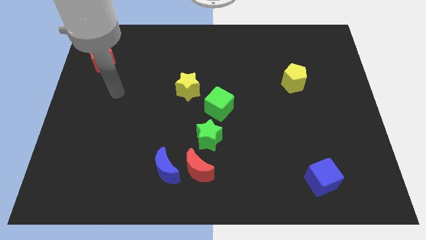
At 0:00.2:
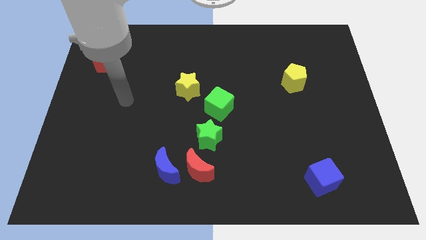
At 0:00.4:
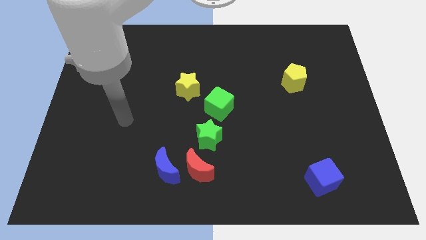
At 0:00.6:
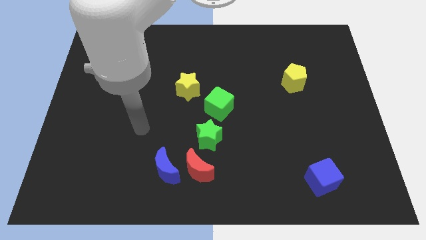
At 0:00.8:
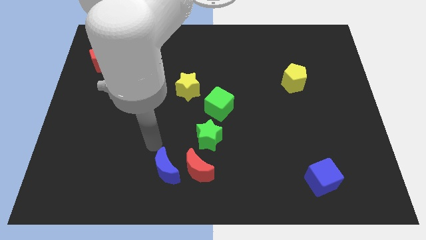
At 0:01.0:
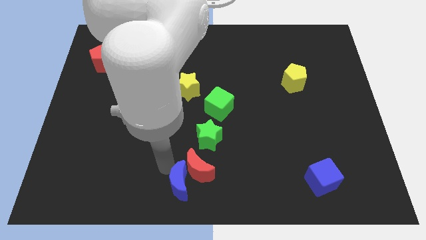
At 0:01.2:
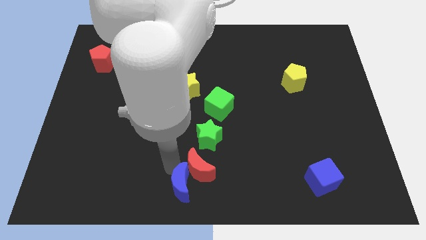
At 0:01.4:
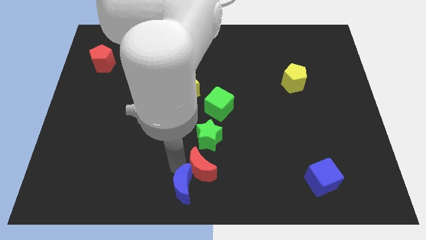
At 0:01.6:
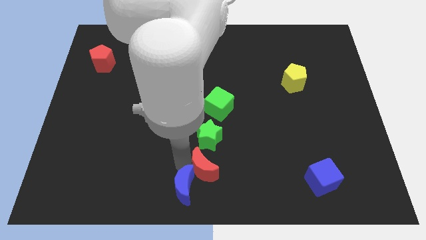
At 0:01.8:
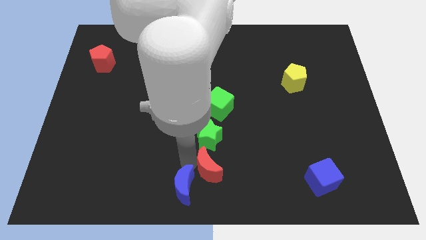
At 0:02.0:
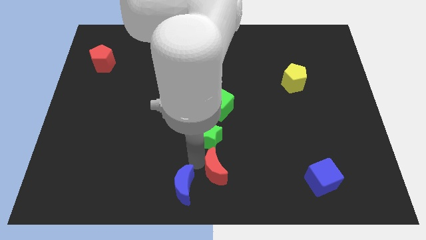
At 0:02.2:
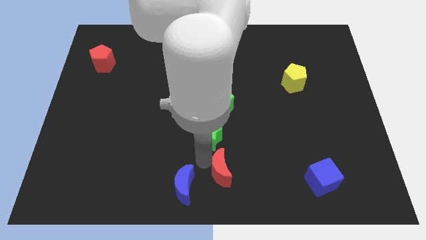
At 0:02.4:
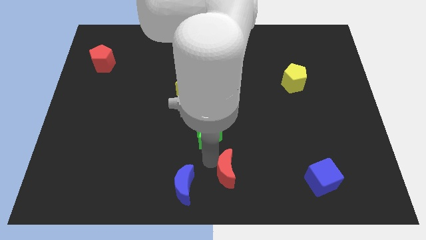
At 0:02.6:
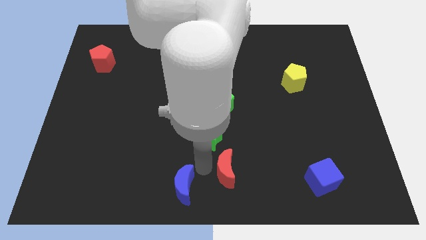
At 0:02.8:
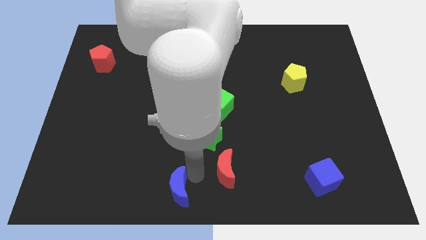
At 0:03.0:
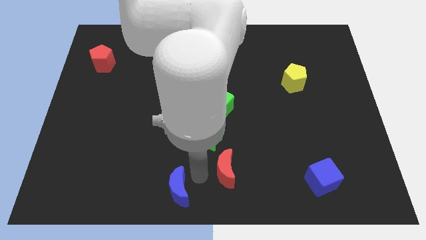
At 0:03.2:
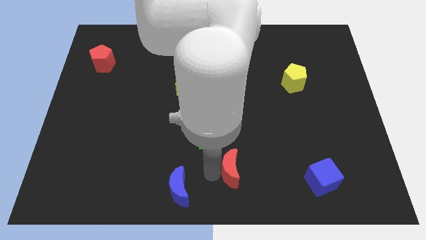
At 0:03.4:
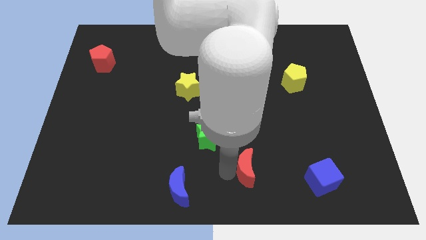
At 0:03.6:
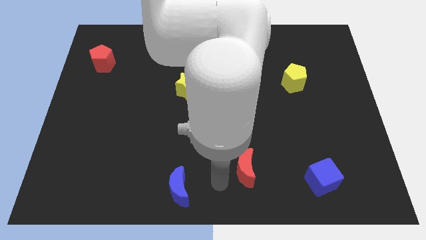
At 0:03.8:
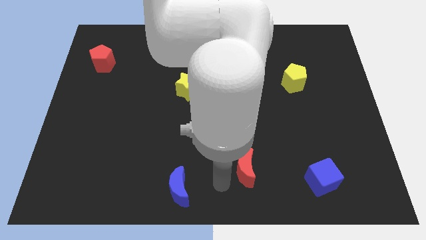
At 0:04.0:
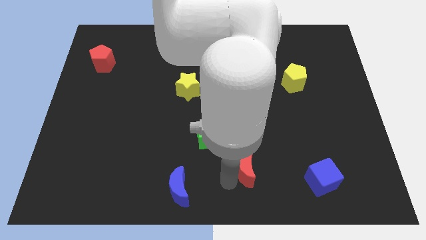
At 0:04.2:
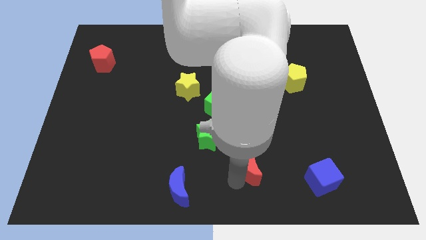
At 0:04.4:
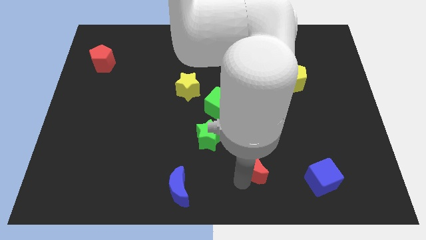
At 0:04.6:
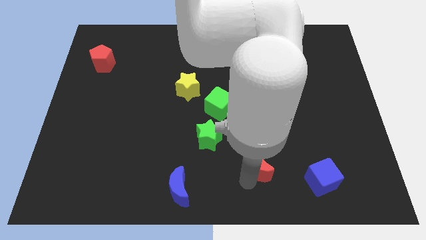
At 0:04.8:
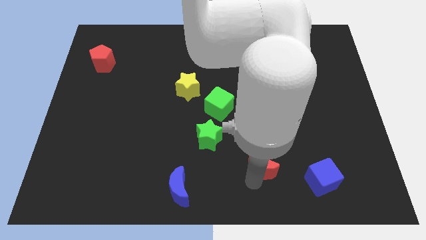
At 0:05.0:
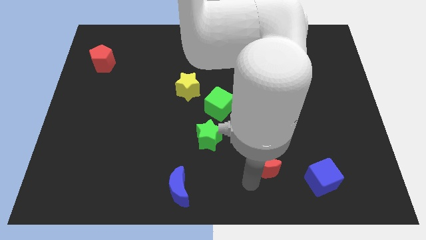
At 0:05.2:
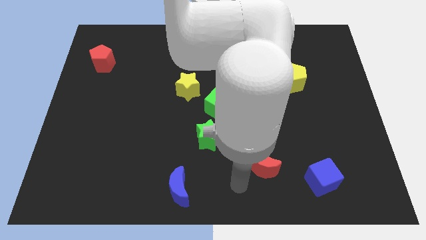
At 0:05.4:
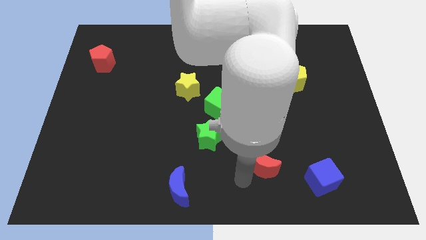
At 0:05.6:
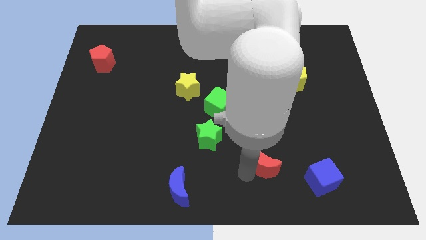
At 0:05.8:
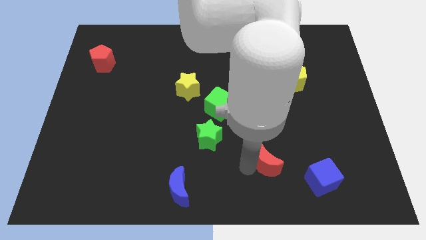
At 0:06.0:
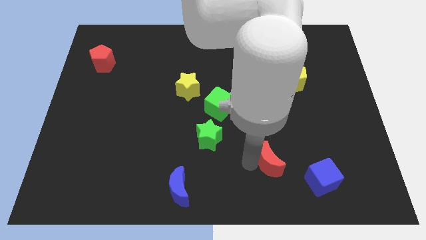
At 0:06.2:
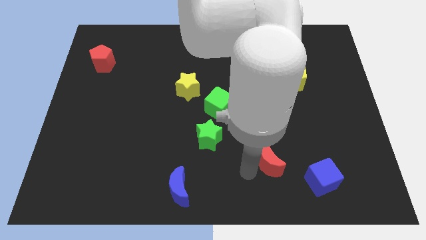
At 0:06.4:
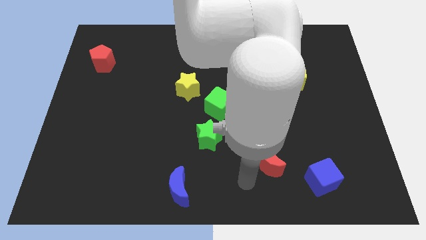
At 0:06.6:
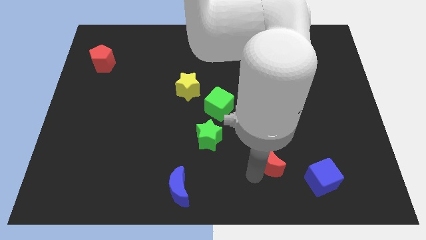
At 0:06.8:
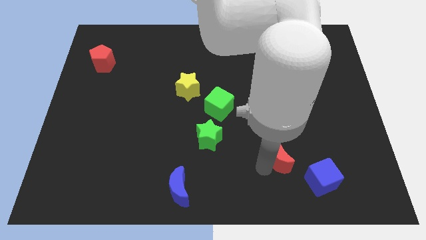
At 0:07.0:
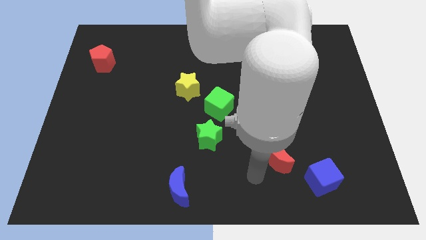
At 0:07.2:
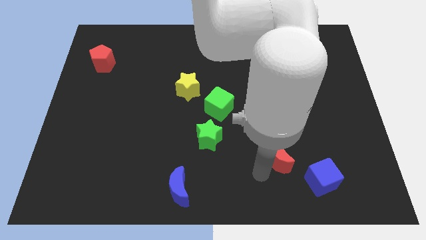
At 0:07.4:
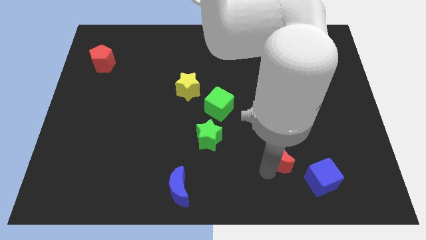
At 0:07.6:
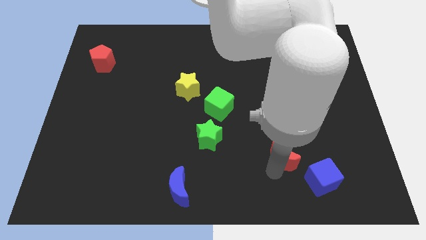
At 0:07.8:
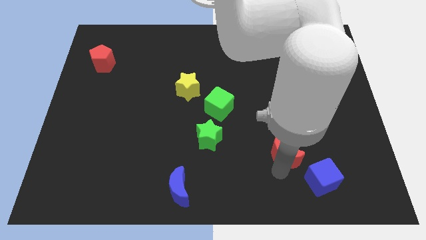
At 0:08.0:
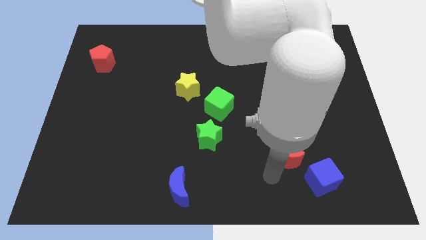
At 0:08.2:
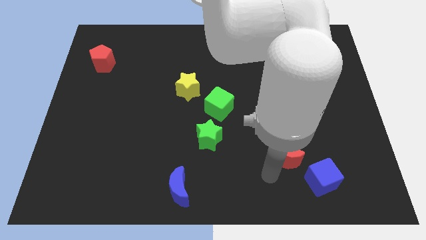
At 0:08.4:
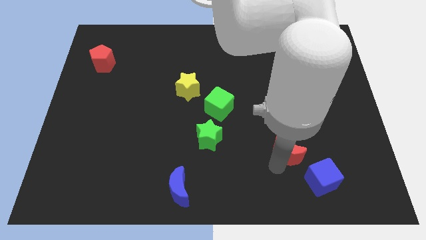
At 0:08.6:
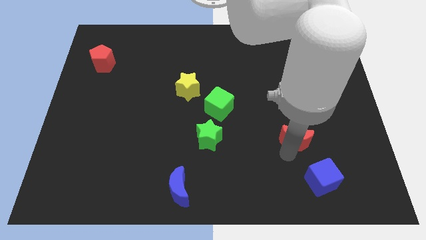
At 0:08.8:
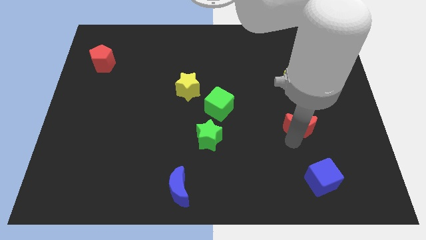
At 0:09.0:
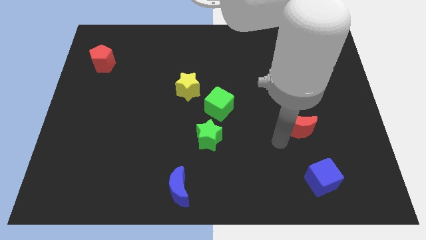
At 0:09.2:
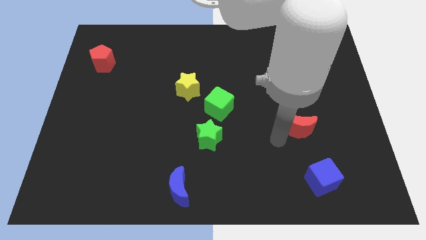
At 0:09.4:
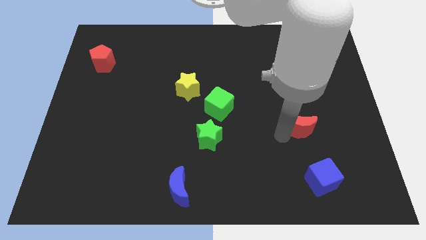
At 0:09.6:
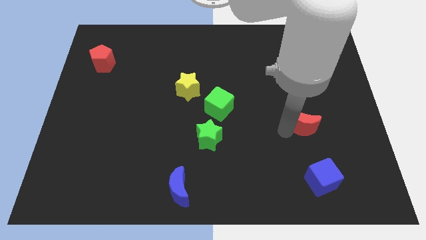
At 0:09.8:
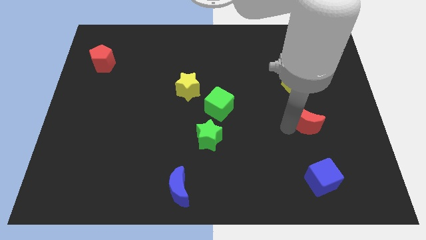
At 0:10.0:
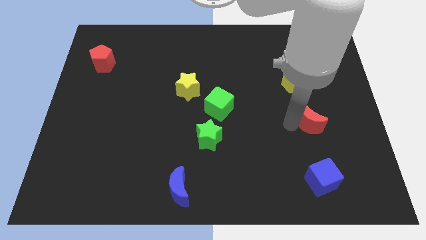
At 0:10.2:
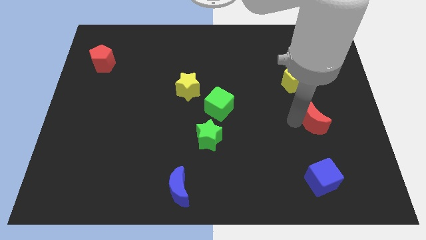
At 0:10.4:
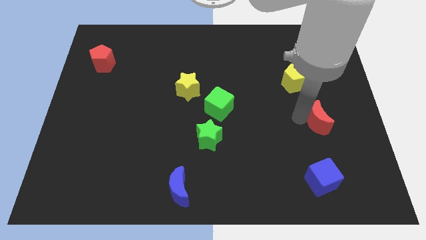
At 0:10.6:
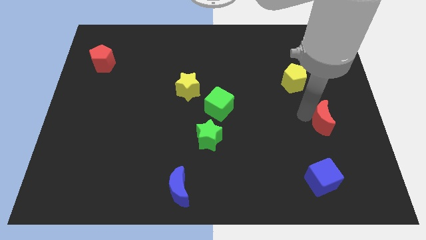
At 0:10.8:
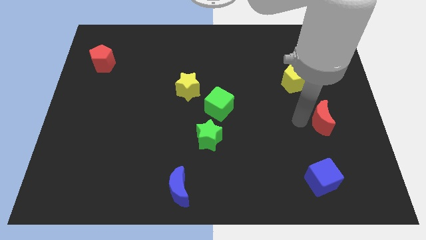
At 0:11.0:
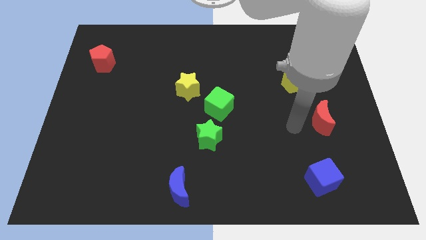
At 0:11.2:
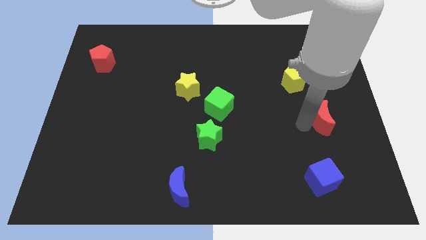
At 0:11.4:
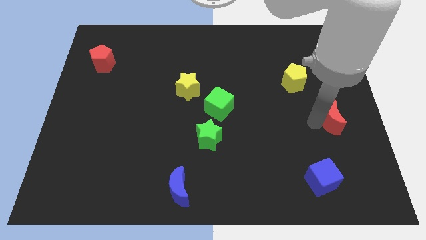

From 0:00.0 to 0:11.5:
move the red moon to the center right
